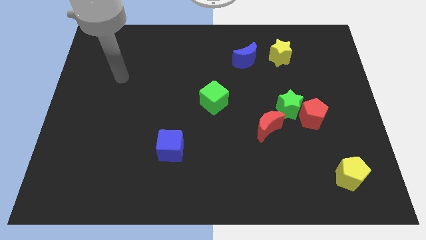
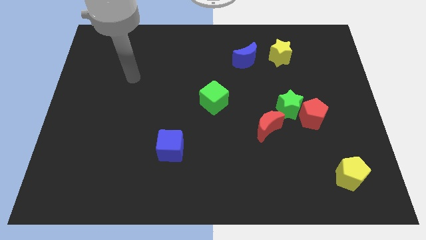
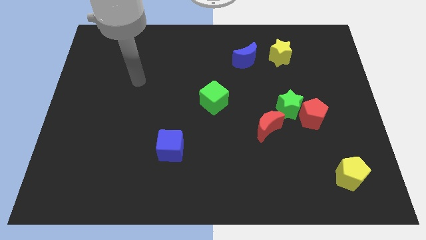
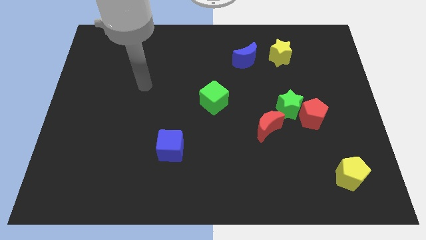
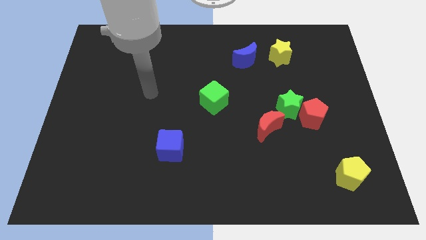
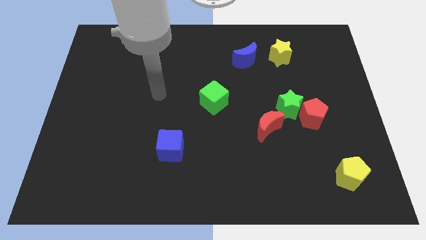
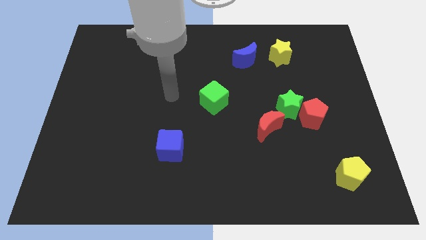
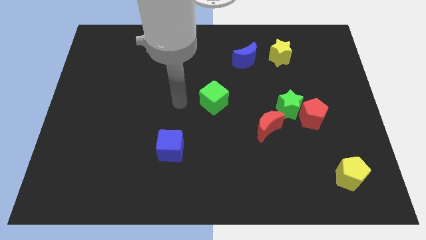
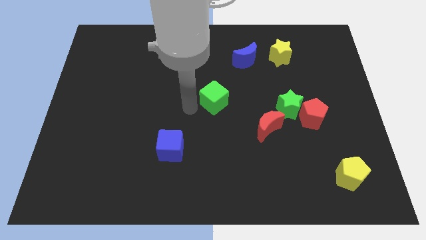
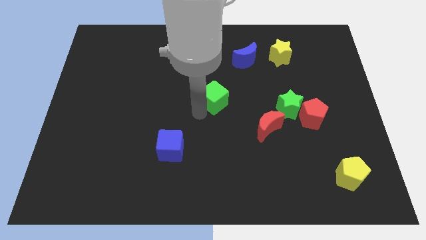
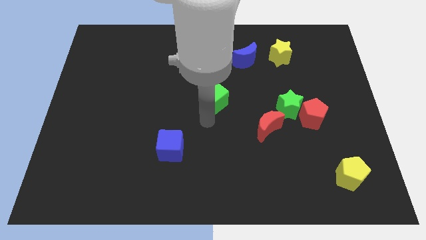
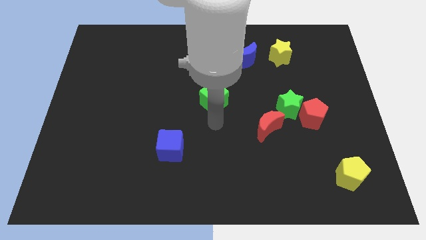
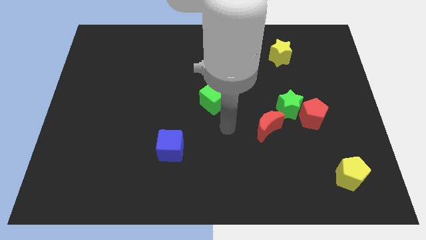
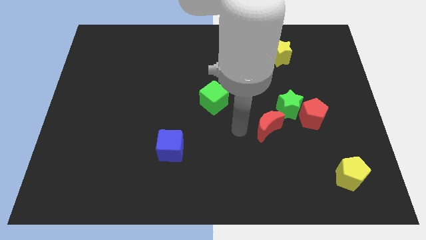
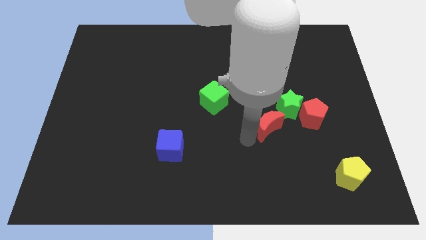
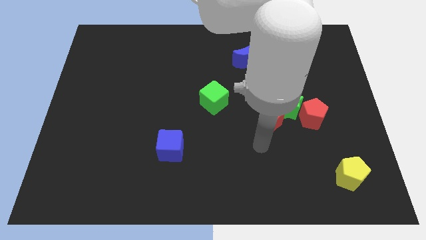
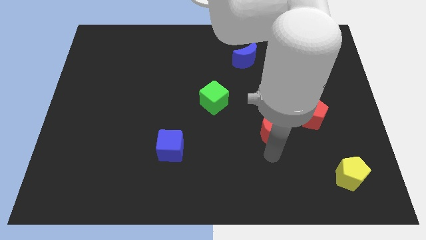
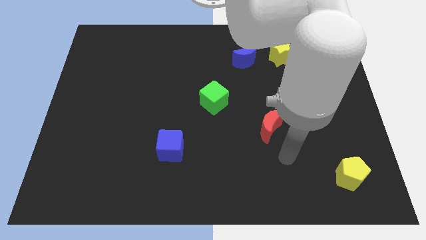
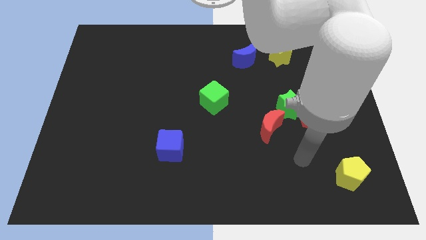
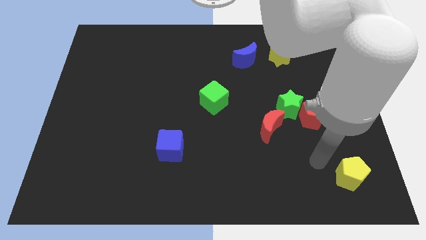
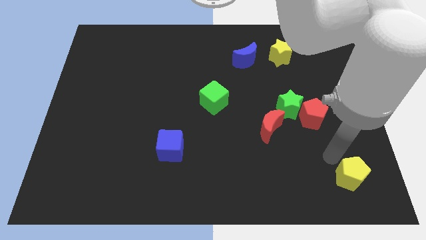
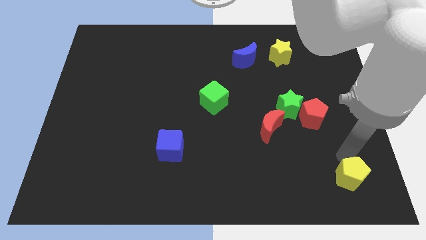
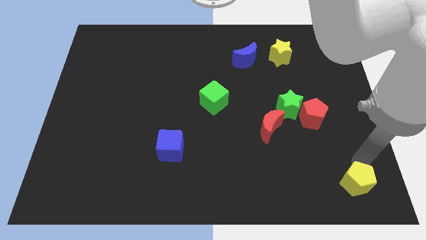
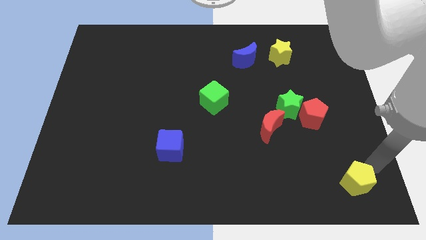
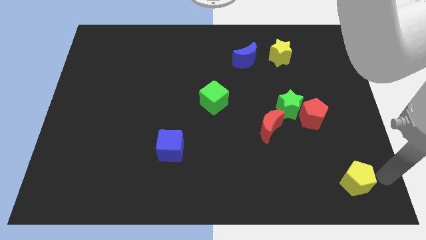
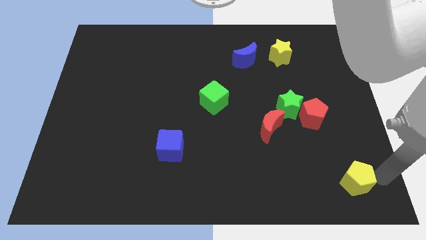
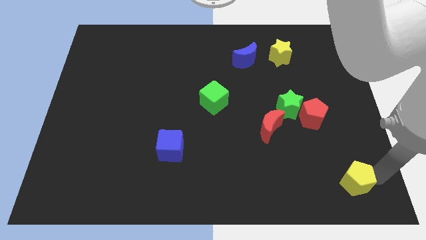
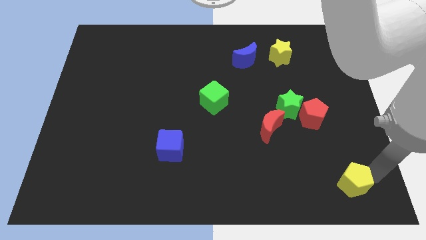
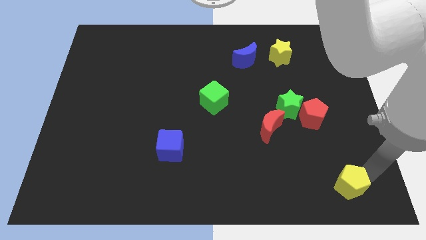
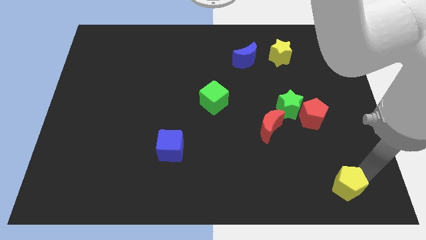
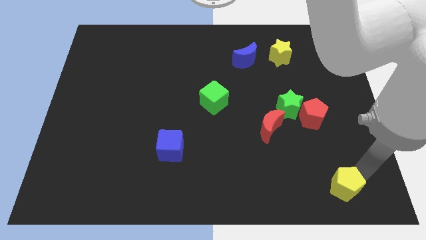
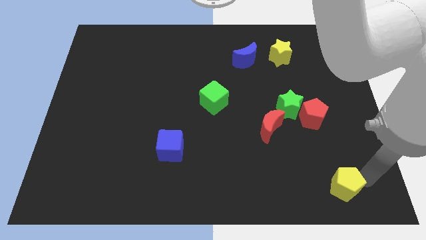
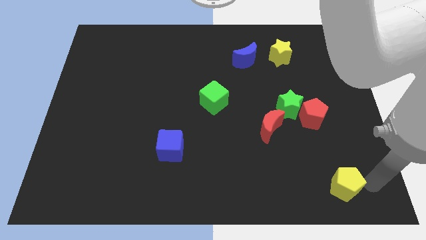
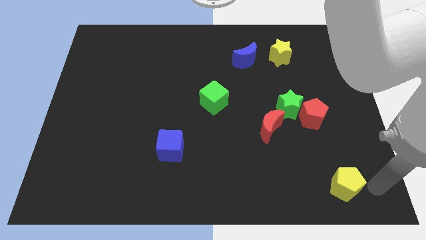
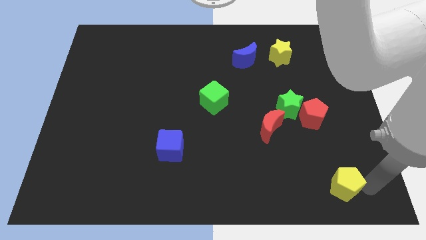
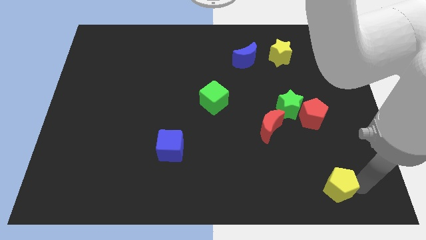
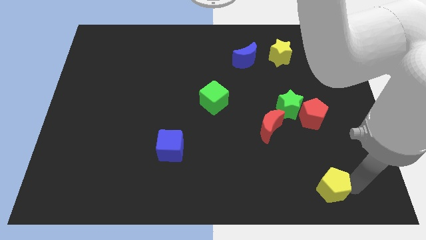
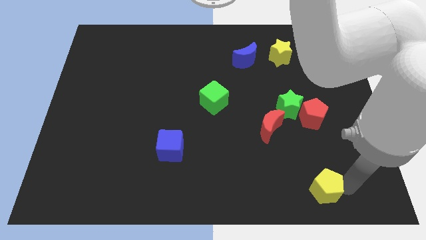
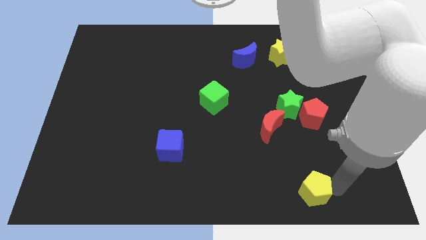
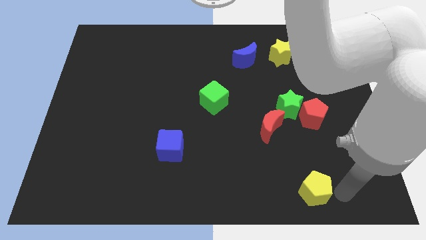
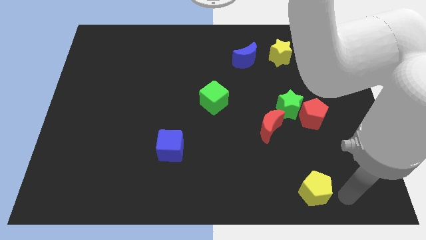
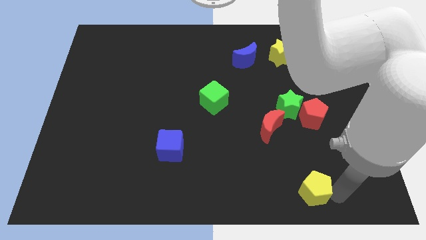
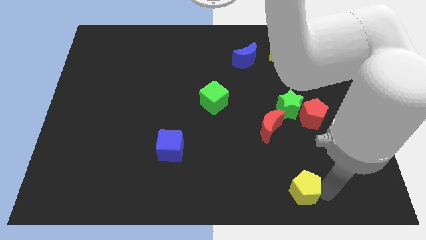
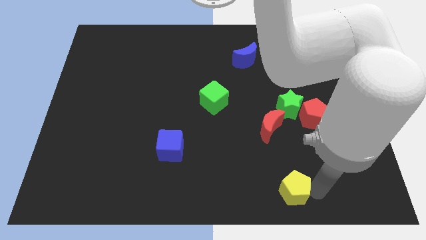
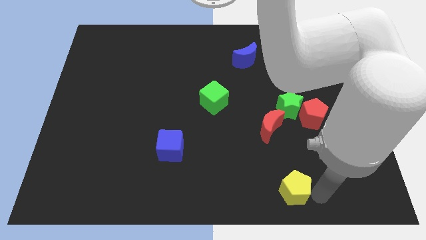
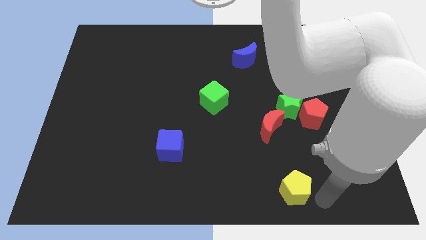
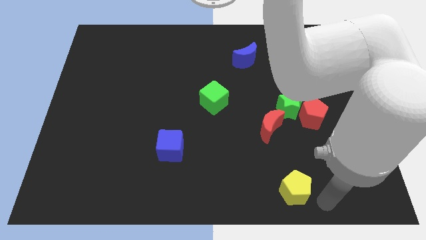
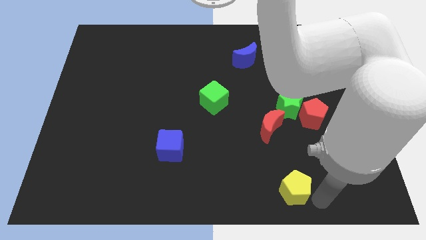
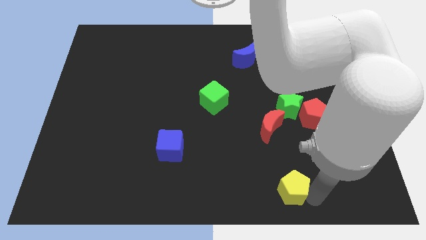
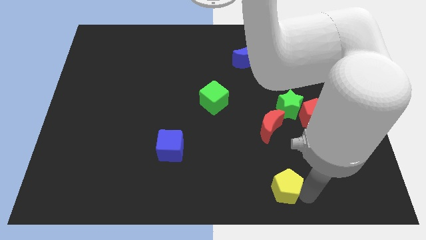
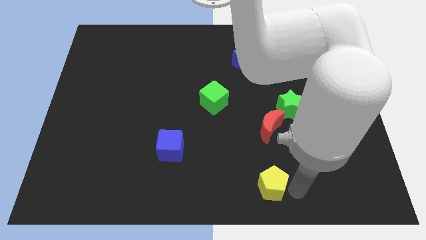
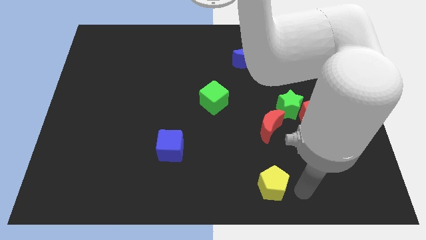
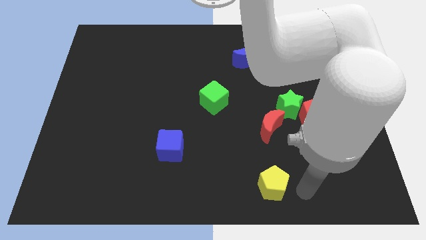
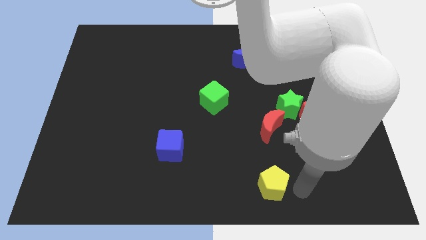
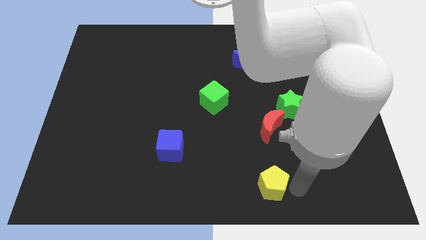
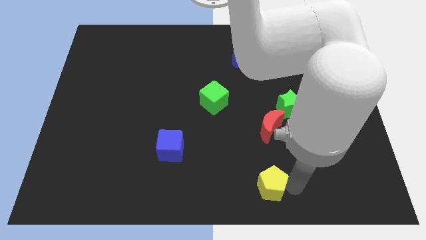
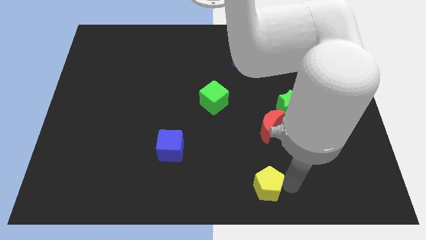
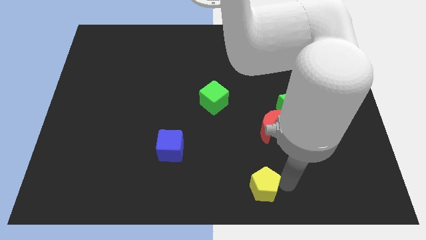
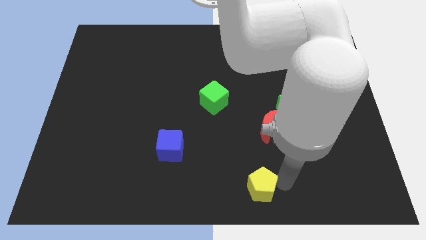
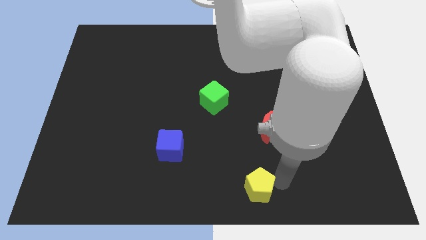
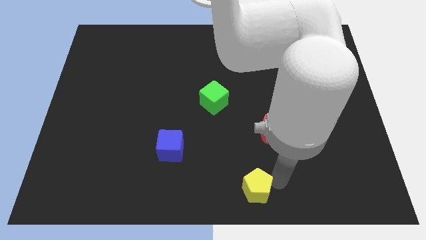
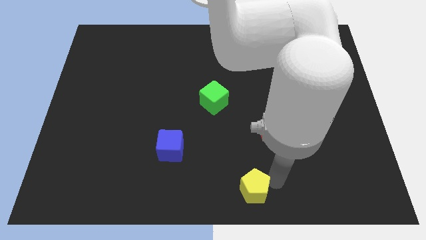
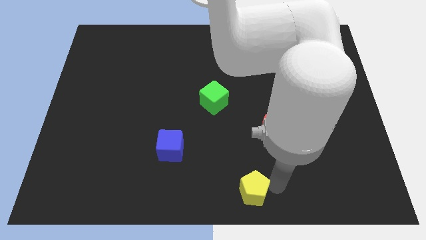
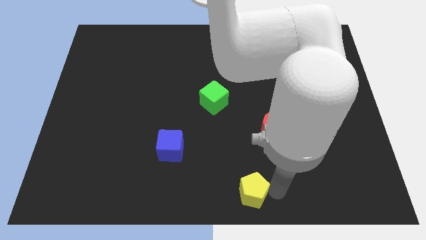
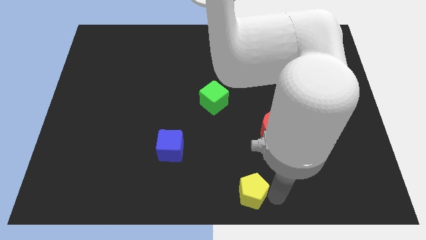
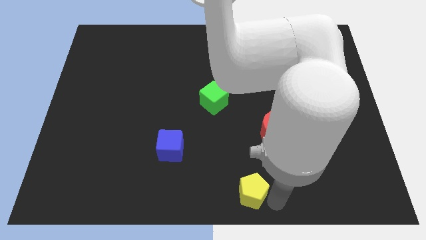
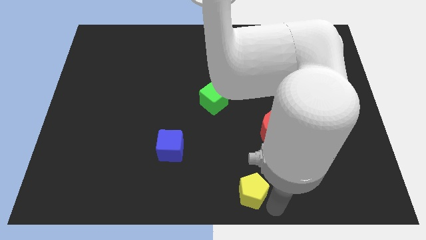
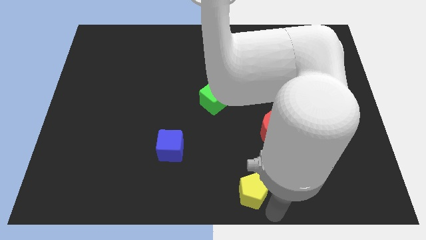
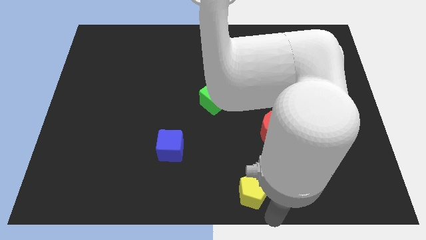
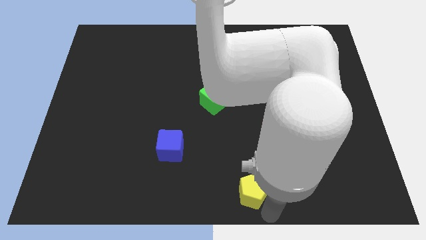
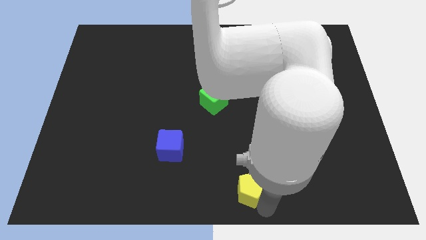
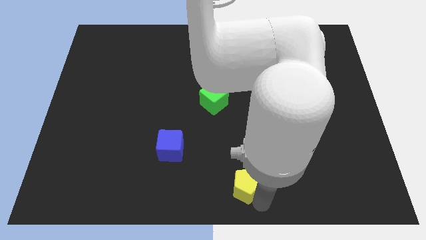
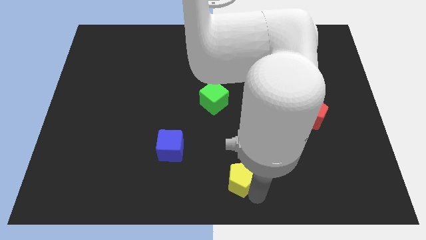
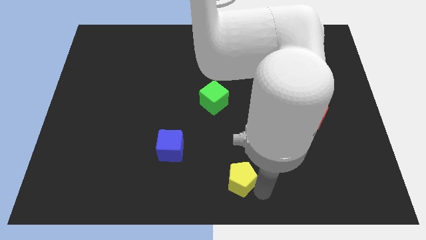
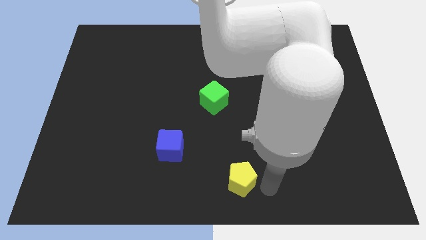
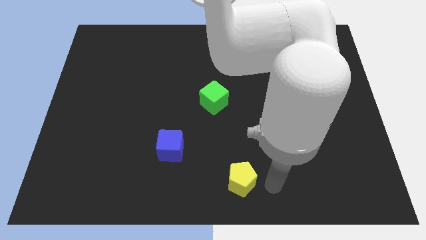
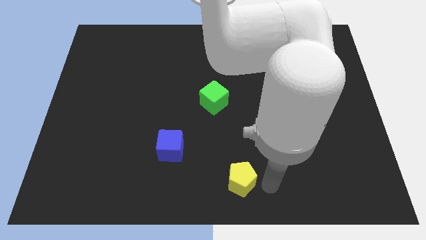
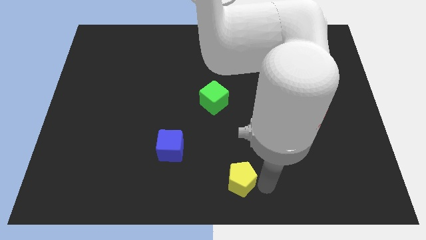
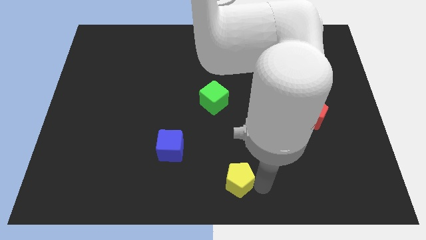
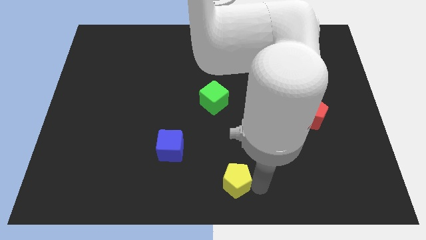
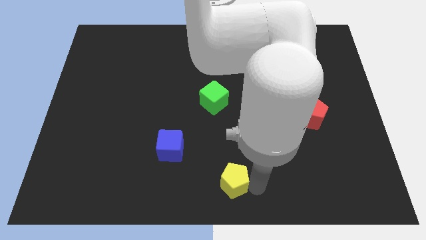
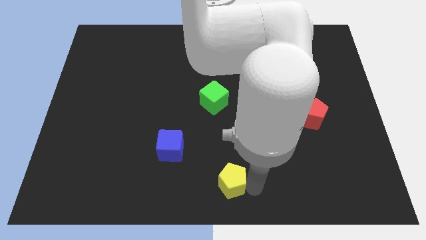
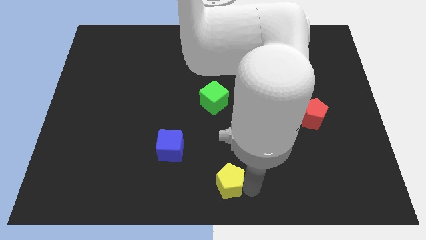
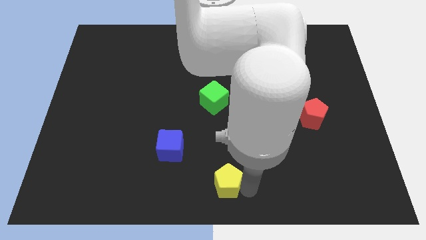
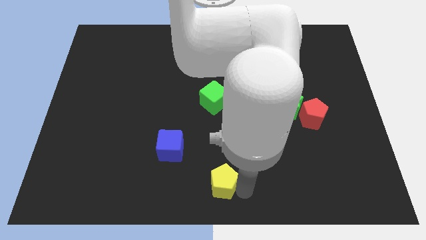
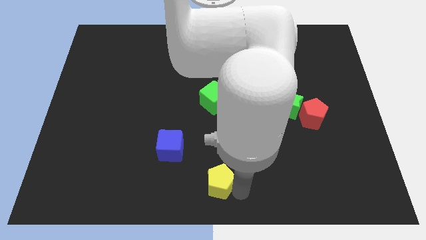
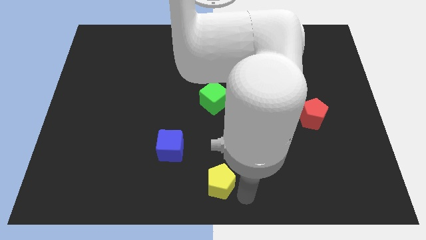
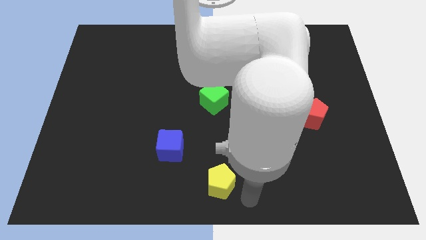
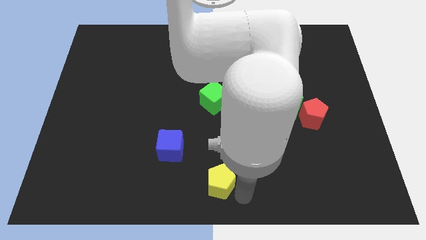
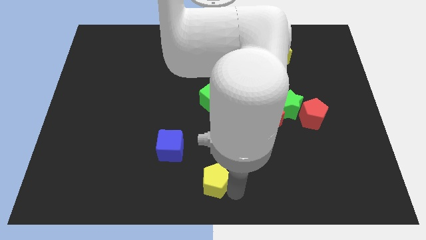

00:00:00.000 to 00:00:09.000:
push the yellow pentagon diagonally down and to the right of the blue cube
